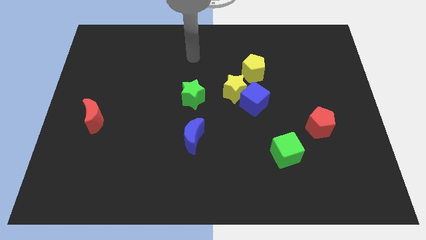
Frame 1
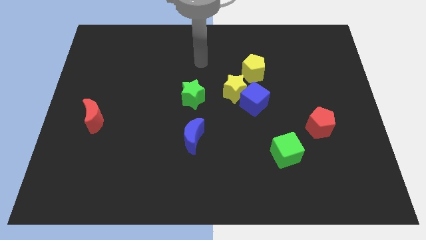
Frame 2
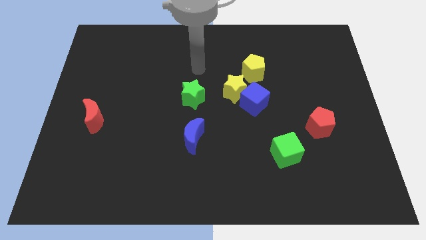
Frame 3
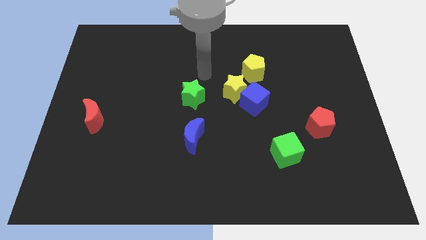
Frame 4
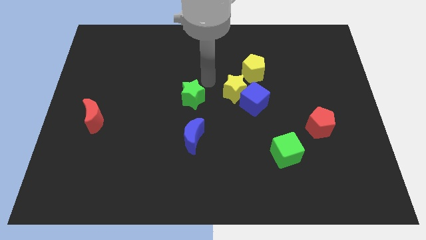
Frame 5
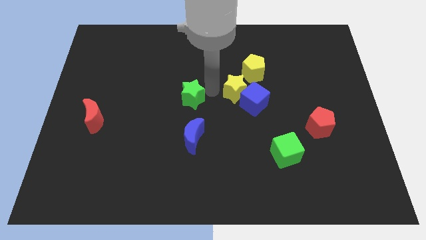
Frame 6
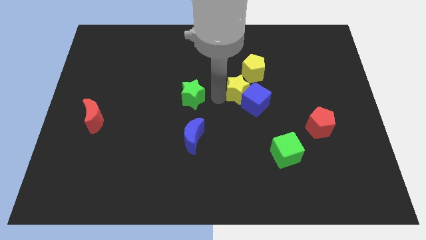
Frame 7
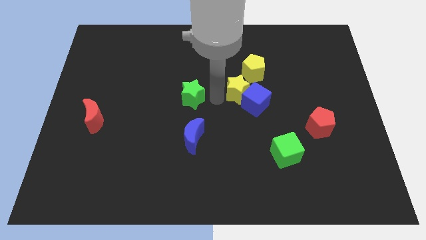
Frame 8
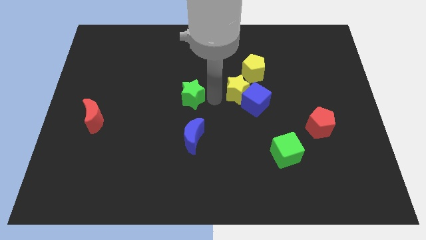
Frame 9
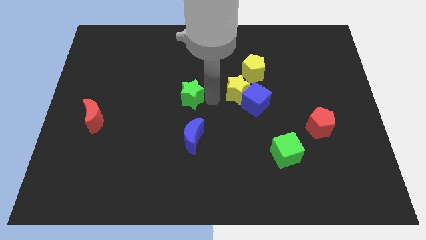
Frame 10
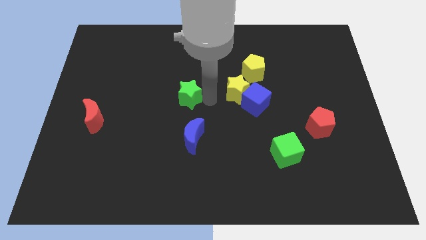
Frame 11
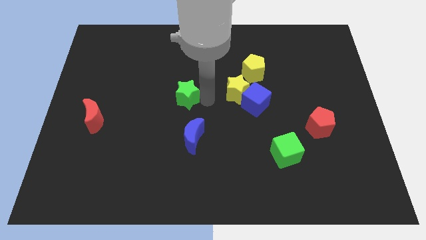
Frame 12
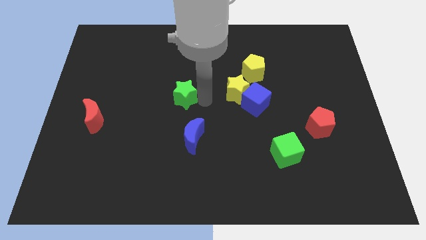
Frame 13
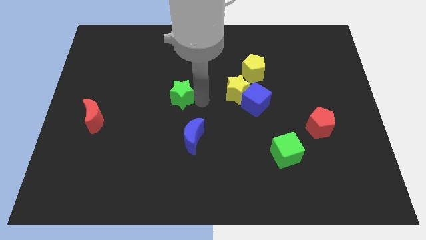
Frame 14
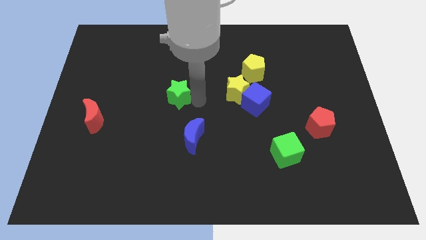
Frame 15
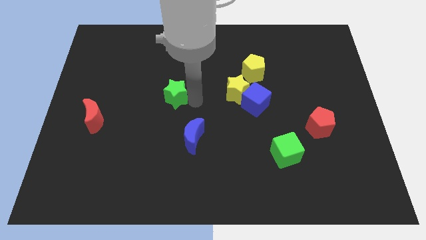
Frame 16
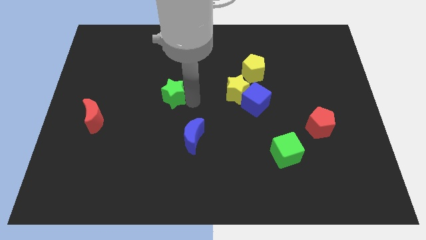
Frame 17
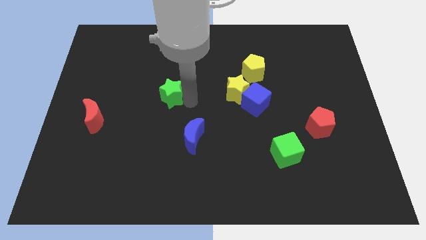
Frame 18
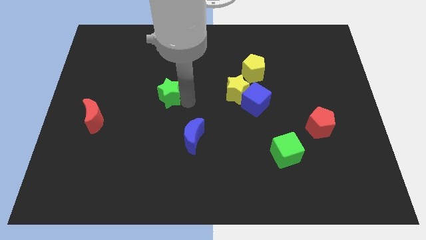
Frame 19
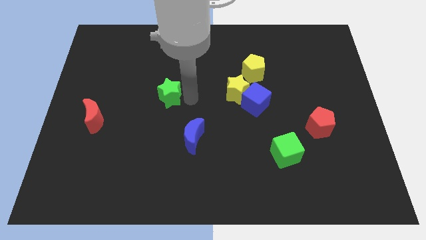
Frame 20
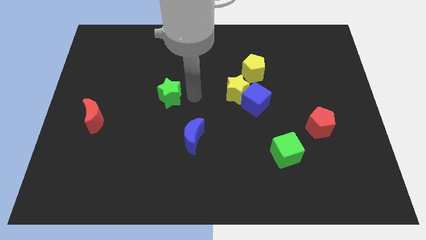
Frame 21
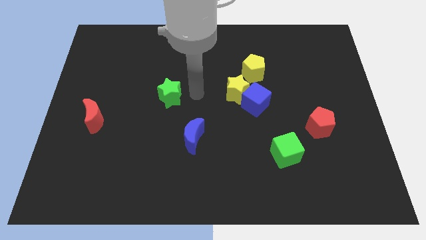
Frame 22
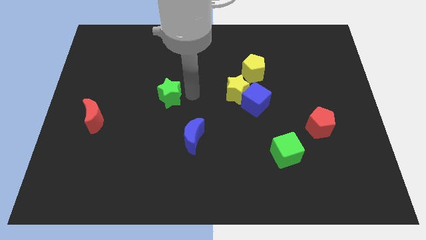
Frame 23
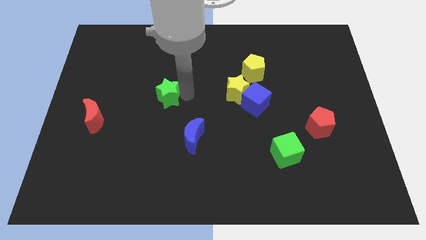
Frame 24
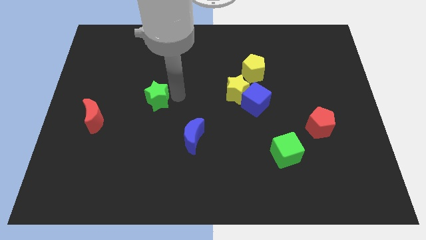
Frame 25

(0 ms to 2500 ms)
move the green star a bit left

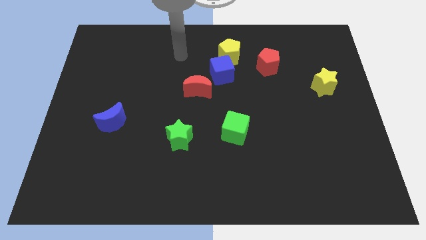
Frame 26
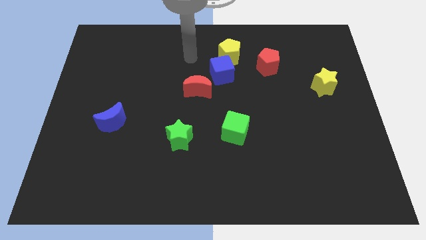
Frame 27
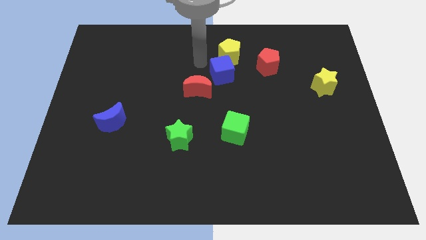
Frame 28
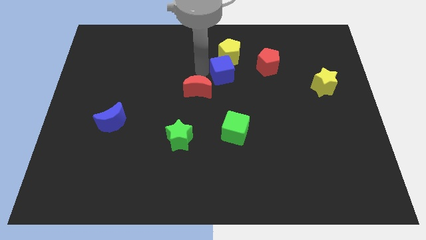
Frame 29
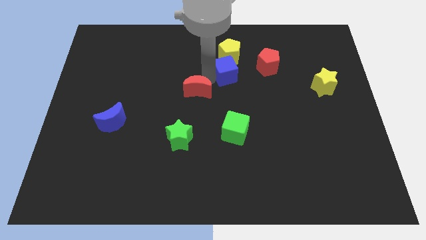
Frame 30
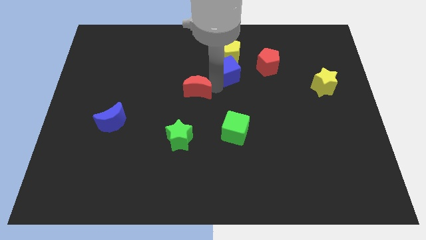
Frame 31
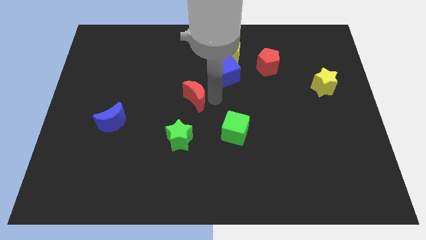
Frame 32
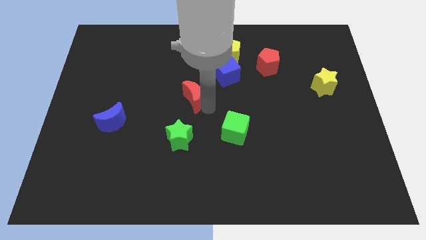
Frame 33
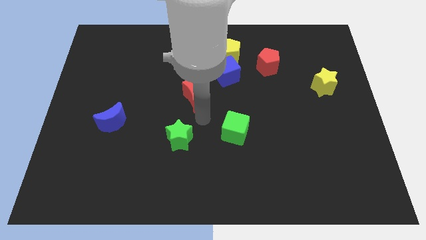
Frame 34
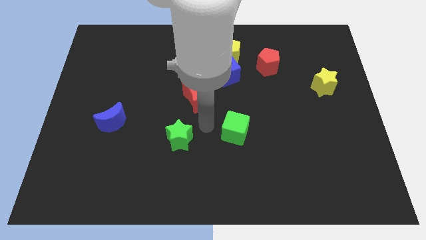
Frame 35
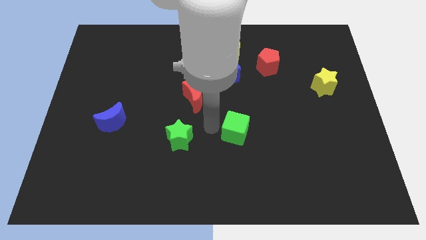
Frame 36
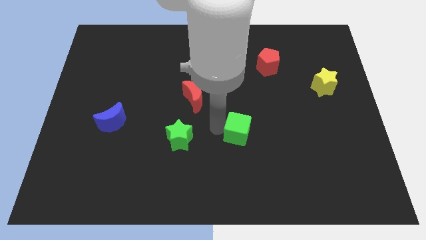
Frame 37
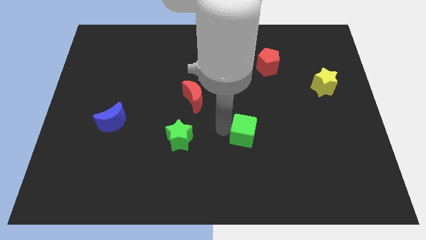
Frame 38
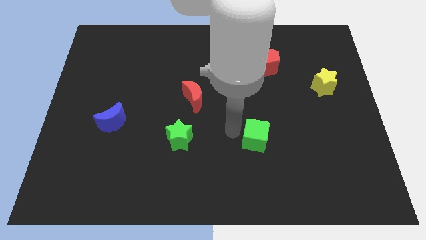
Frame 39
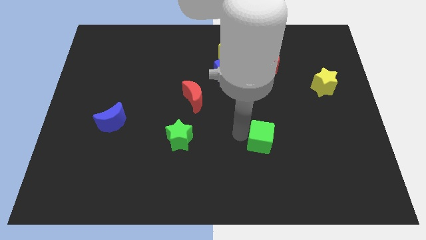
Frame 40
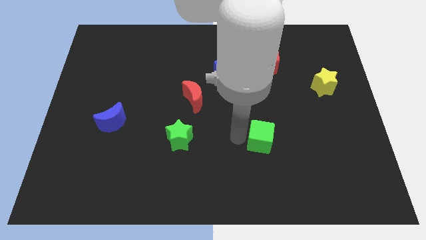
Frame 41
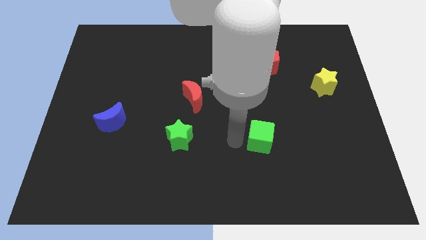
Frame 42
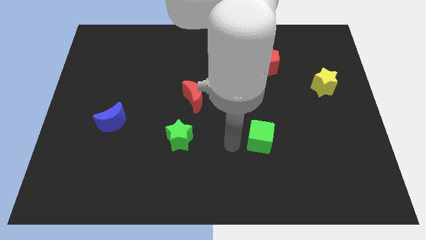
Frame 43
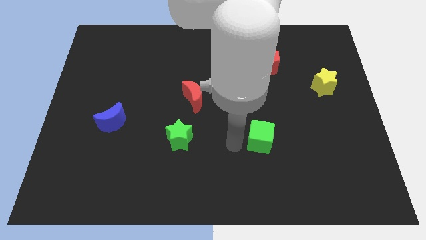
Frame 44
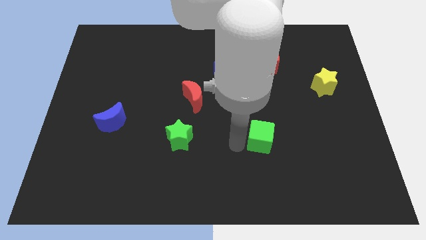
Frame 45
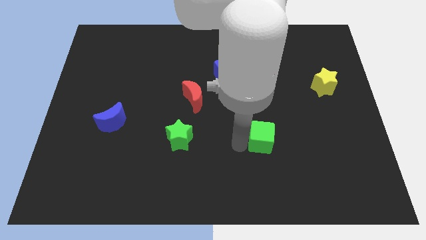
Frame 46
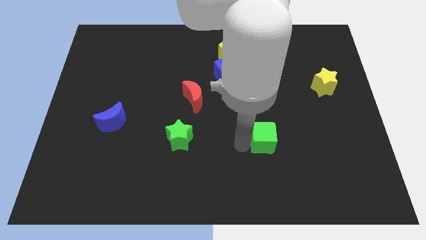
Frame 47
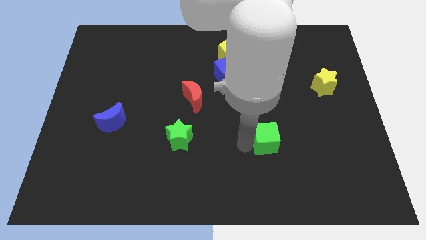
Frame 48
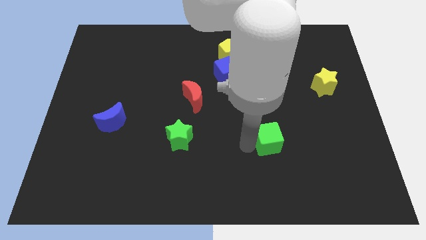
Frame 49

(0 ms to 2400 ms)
move the green cube somewhat to the right

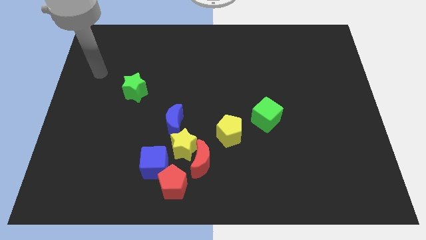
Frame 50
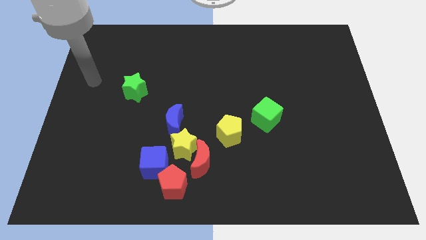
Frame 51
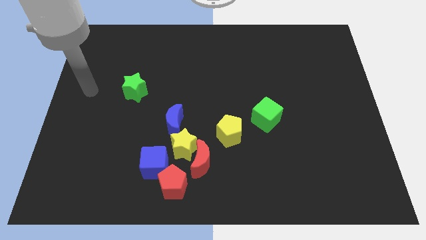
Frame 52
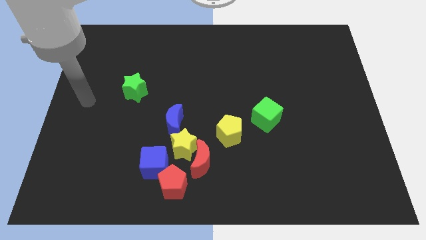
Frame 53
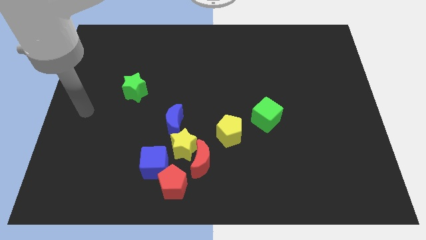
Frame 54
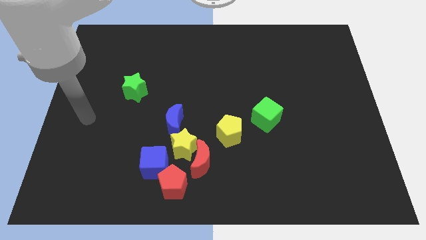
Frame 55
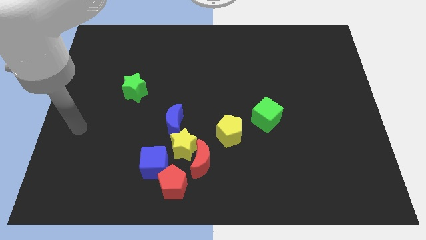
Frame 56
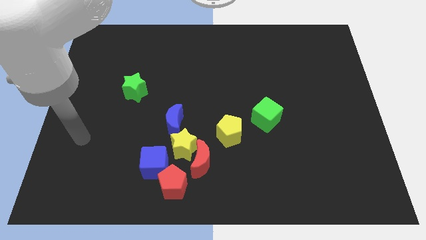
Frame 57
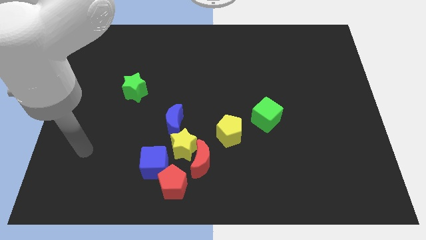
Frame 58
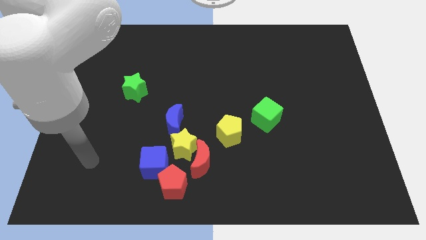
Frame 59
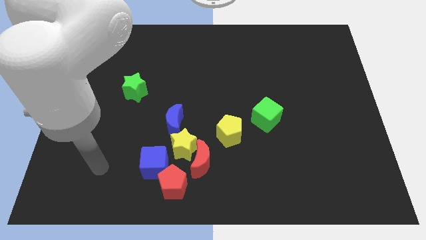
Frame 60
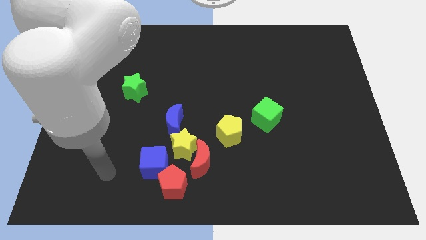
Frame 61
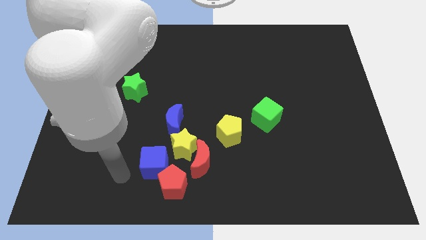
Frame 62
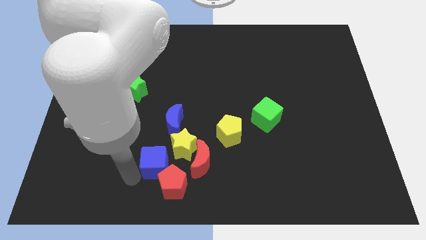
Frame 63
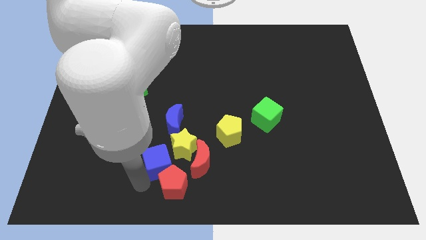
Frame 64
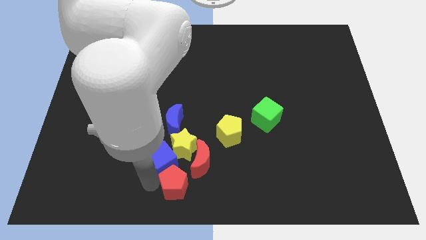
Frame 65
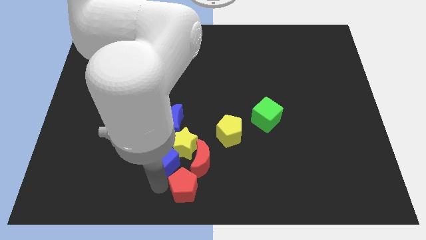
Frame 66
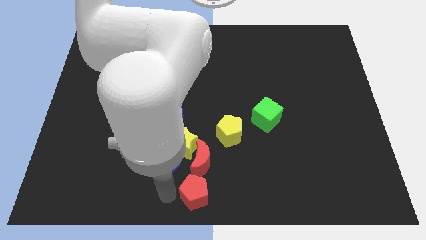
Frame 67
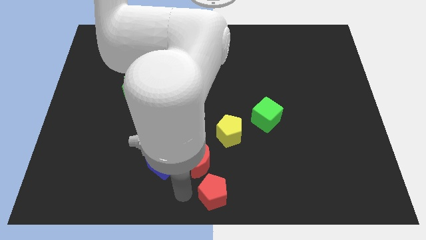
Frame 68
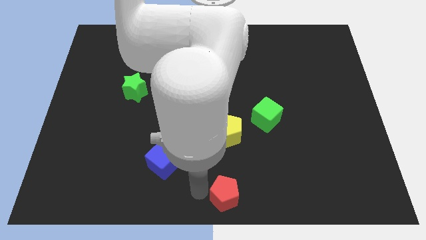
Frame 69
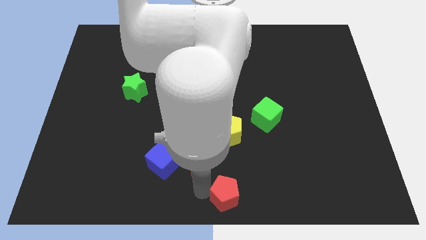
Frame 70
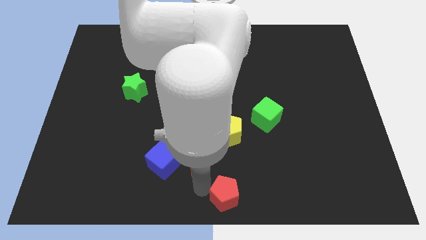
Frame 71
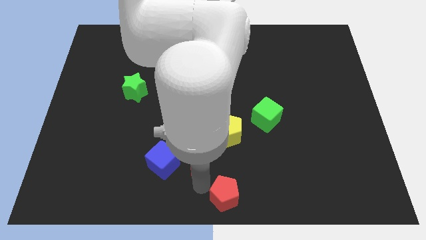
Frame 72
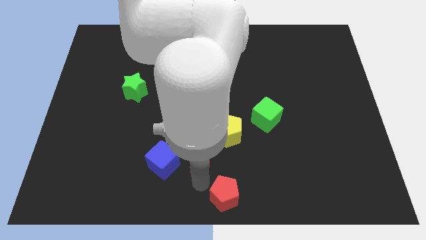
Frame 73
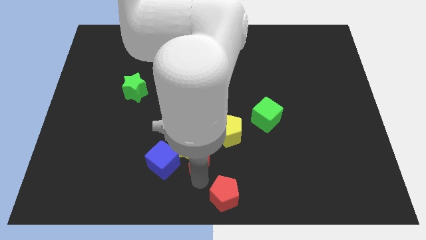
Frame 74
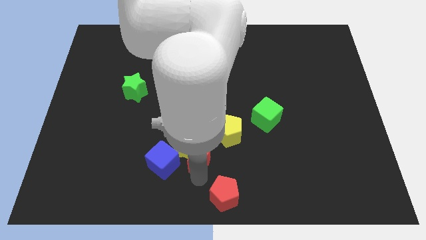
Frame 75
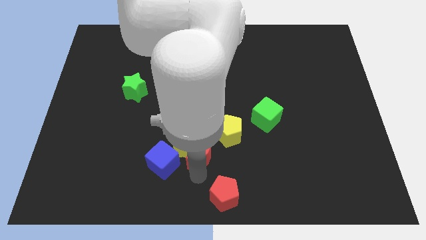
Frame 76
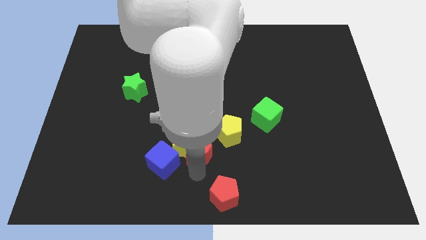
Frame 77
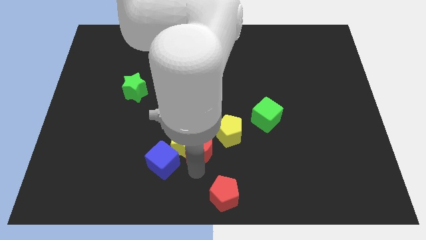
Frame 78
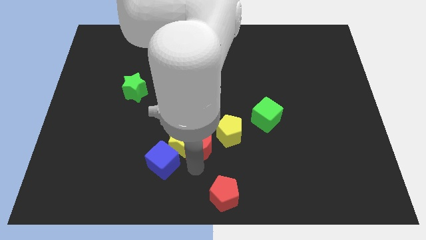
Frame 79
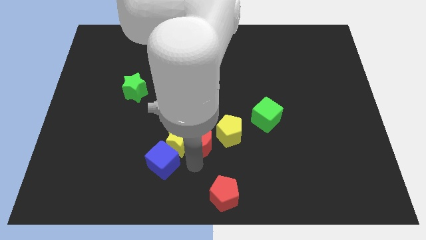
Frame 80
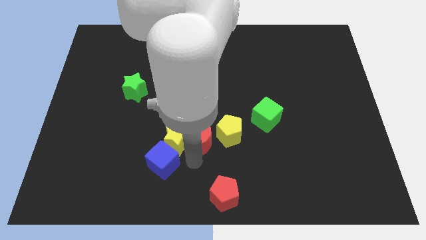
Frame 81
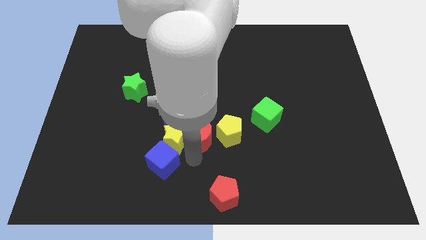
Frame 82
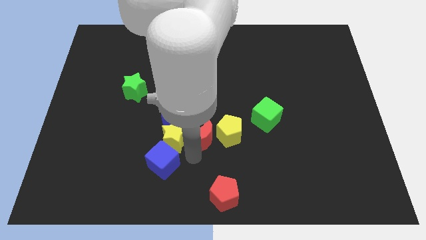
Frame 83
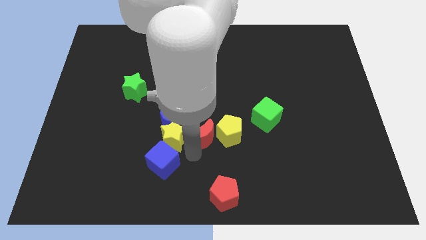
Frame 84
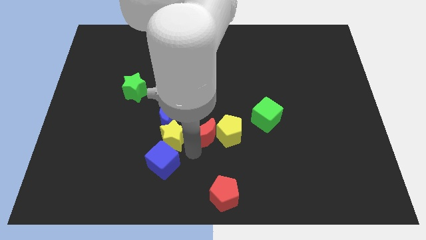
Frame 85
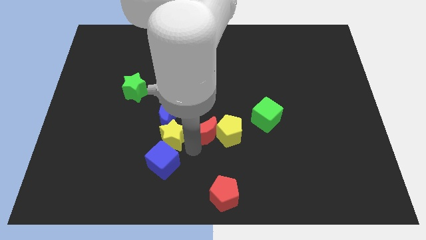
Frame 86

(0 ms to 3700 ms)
slightly slide the red moon upwards
